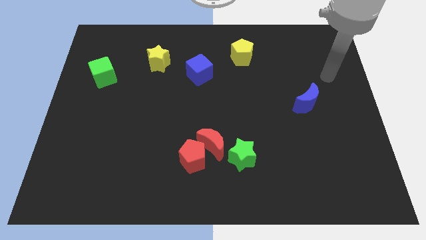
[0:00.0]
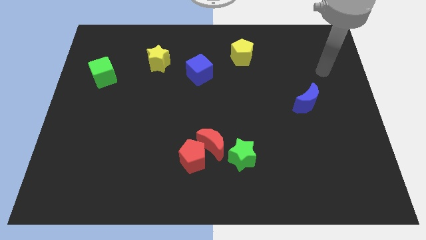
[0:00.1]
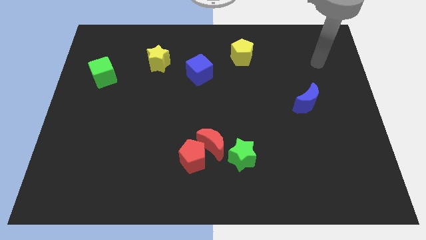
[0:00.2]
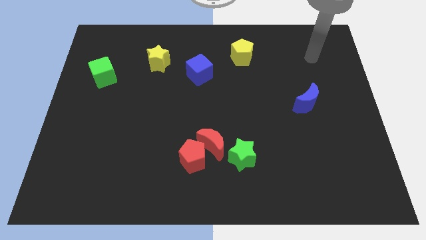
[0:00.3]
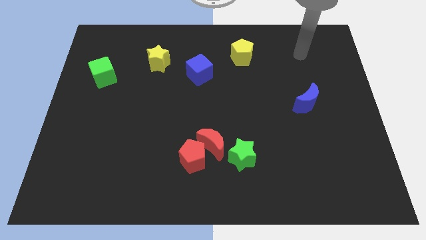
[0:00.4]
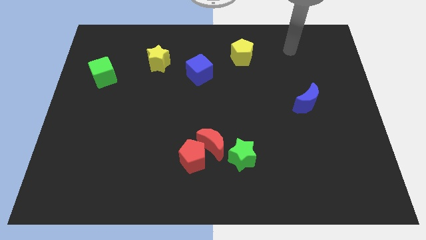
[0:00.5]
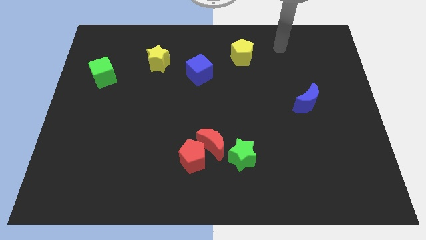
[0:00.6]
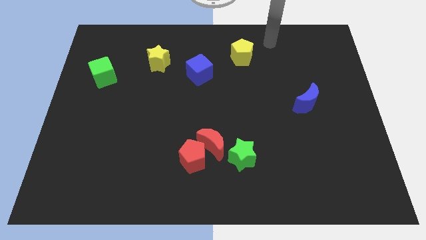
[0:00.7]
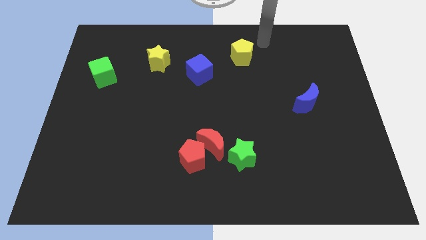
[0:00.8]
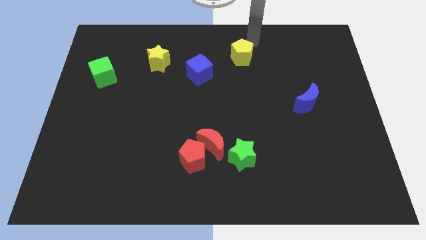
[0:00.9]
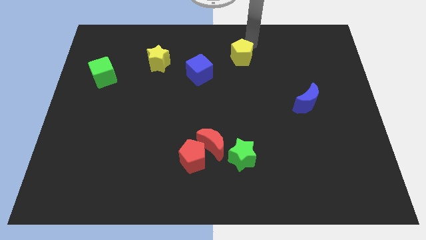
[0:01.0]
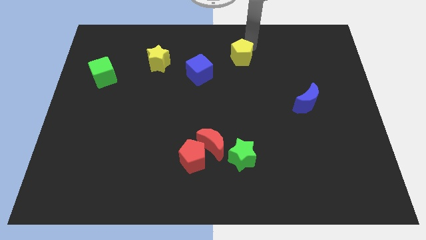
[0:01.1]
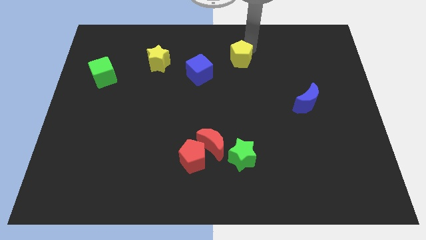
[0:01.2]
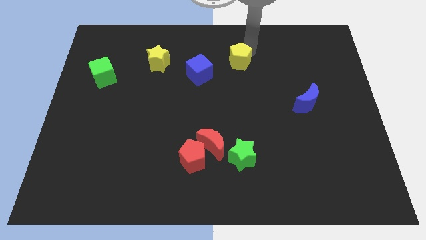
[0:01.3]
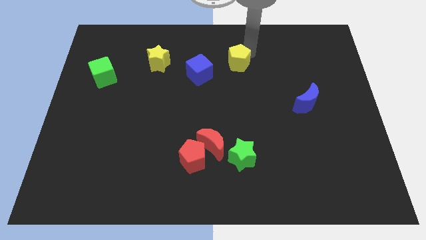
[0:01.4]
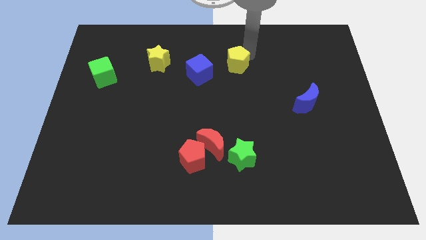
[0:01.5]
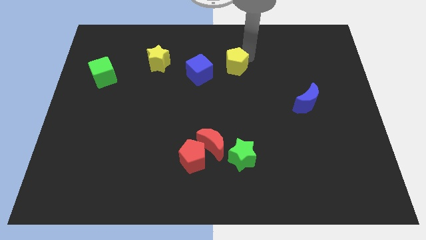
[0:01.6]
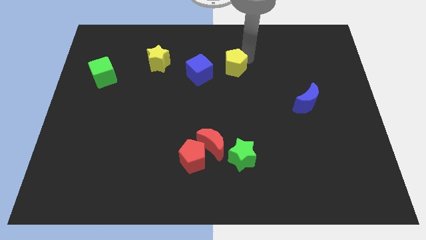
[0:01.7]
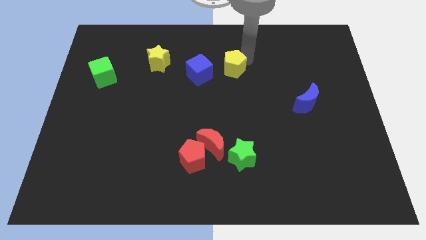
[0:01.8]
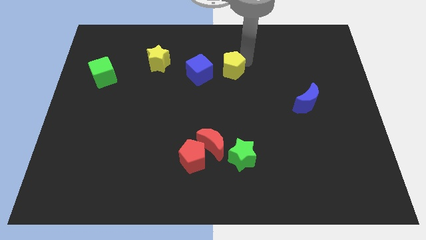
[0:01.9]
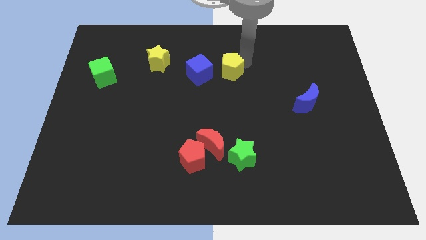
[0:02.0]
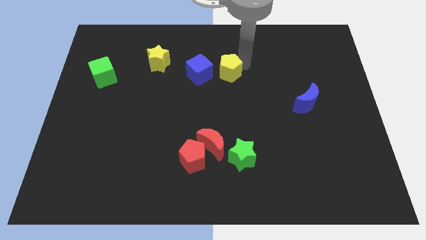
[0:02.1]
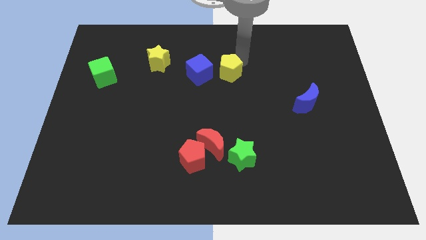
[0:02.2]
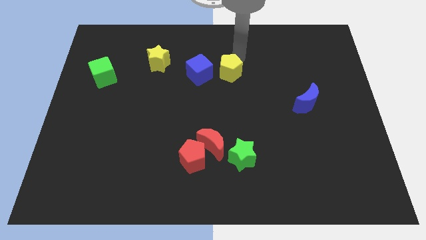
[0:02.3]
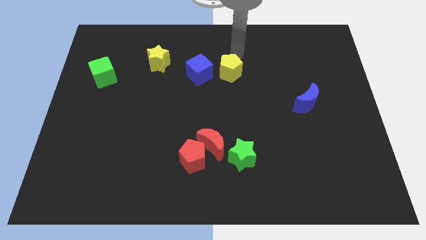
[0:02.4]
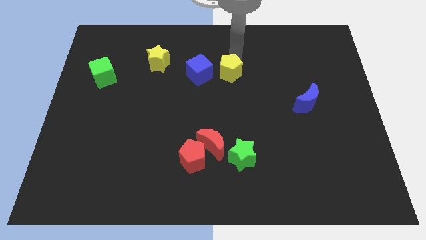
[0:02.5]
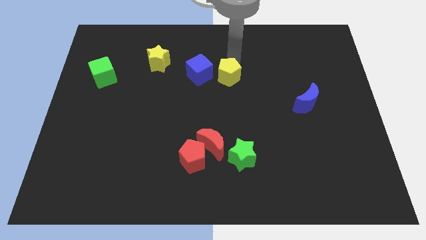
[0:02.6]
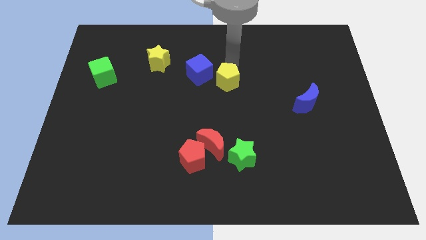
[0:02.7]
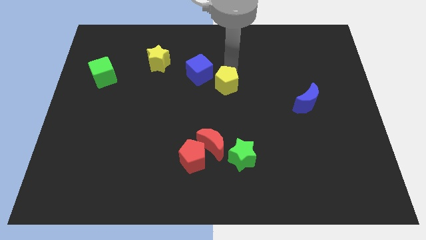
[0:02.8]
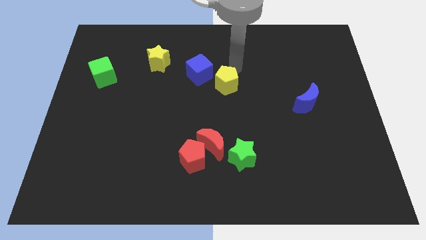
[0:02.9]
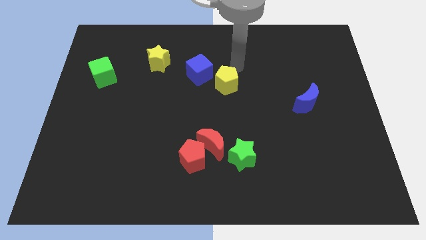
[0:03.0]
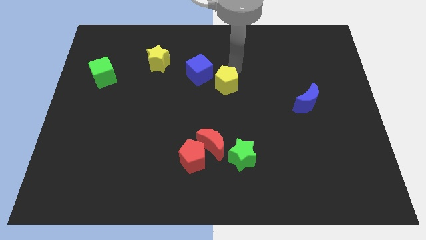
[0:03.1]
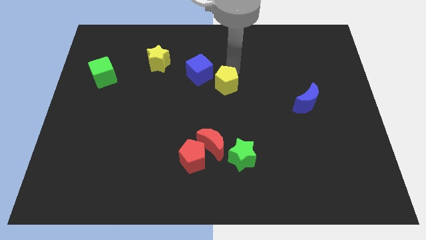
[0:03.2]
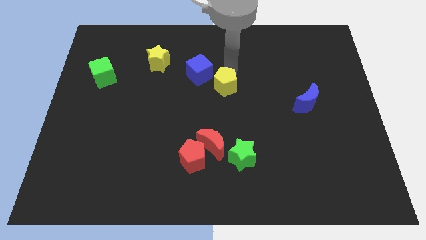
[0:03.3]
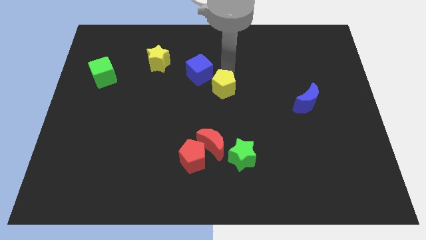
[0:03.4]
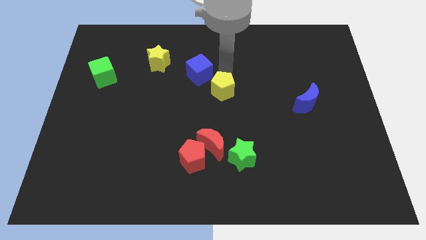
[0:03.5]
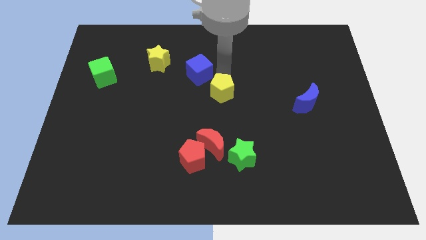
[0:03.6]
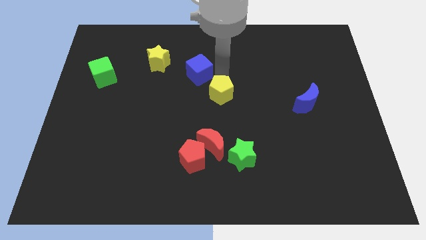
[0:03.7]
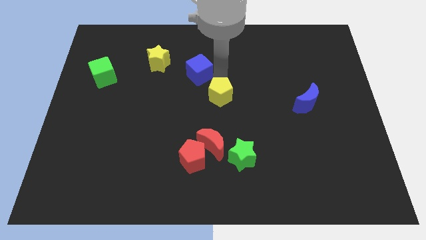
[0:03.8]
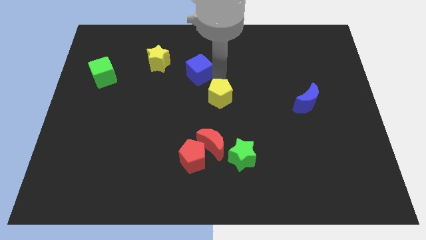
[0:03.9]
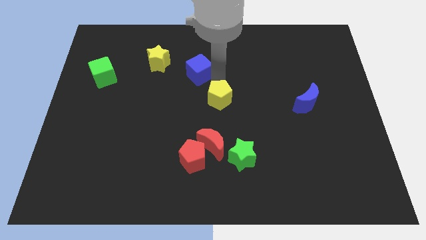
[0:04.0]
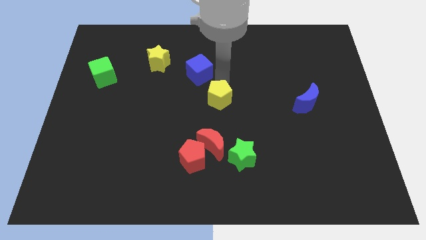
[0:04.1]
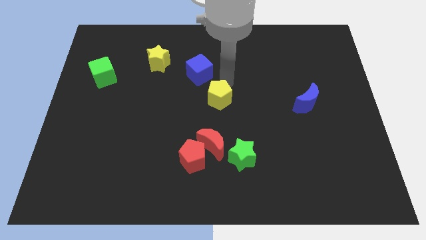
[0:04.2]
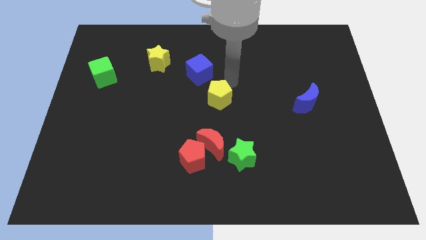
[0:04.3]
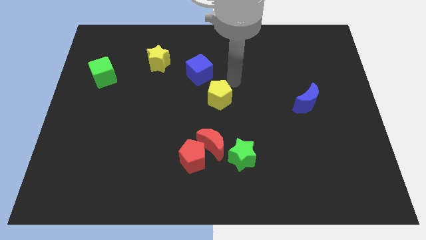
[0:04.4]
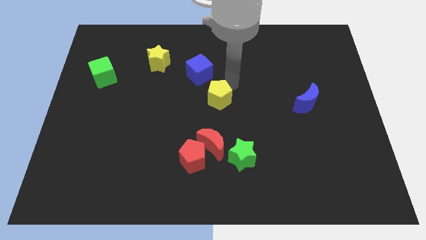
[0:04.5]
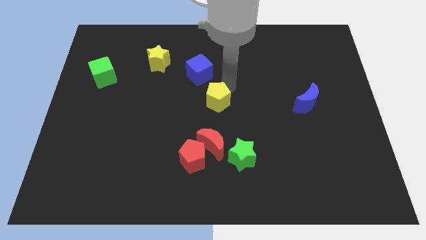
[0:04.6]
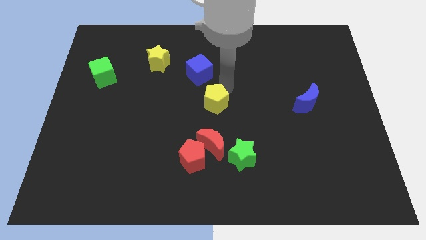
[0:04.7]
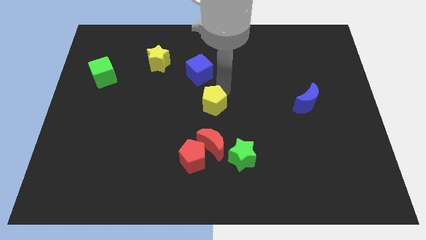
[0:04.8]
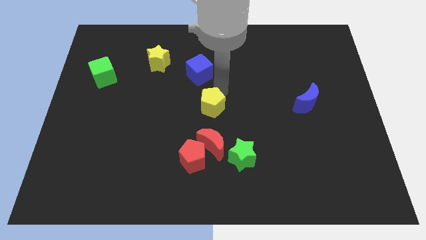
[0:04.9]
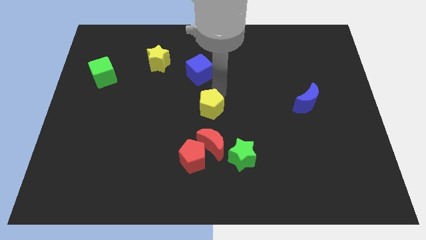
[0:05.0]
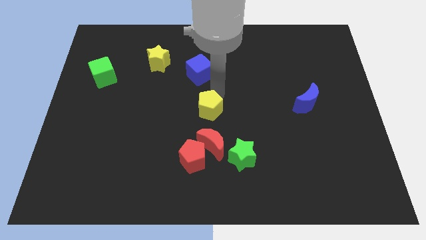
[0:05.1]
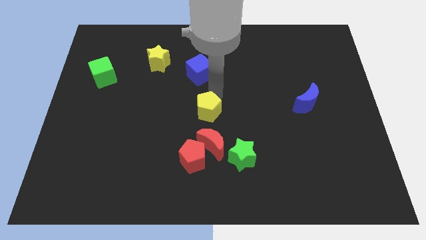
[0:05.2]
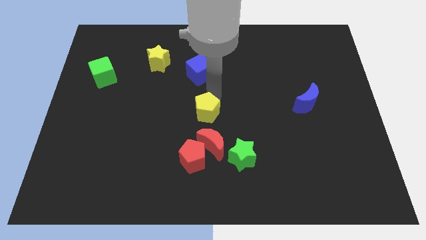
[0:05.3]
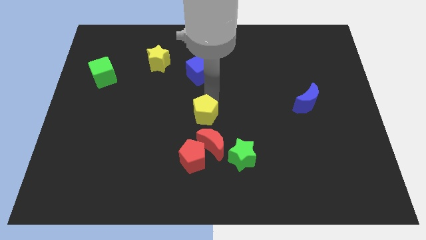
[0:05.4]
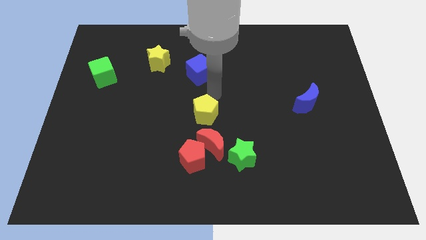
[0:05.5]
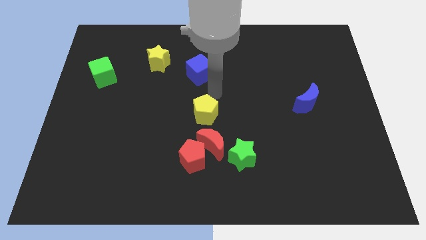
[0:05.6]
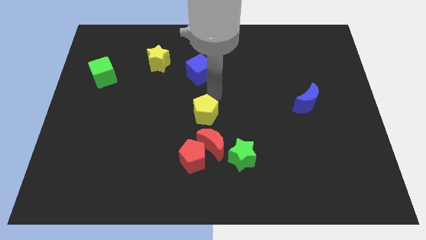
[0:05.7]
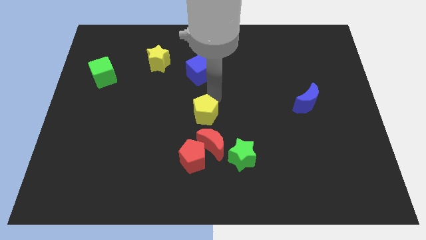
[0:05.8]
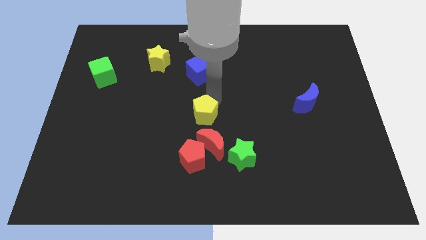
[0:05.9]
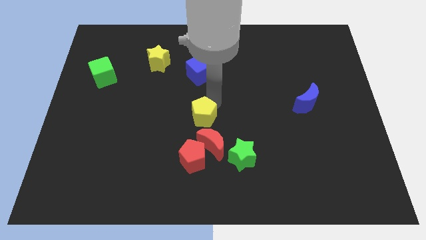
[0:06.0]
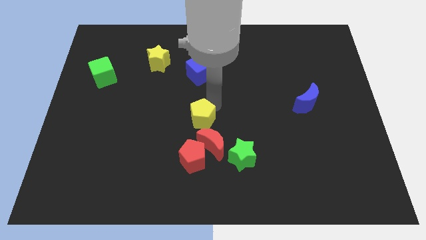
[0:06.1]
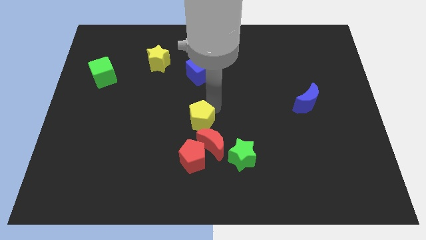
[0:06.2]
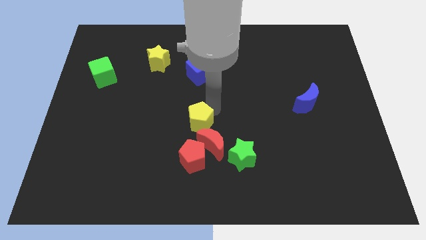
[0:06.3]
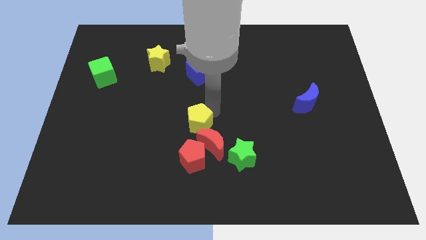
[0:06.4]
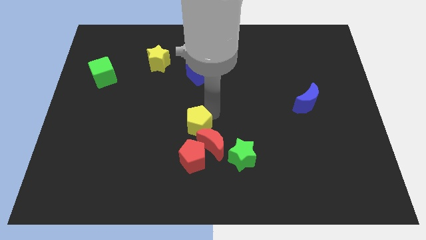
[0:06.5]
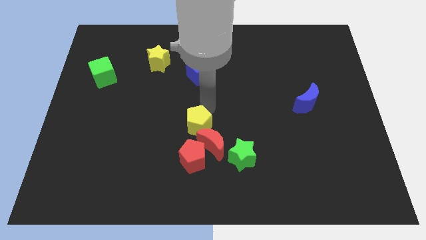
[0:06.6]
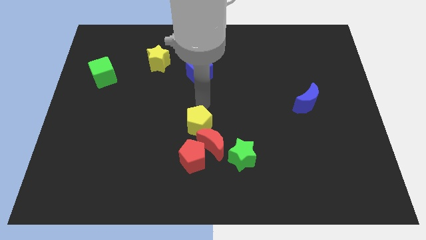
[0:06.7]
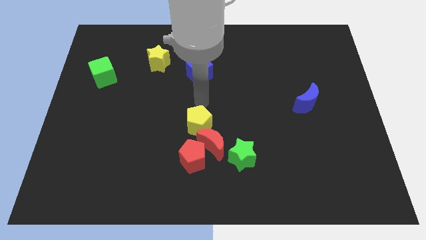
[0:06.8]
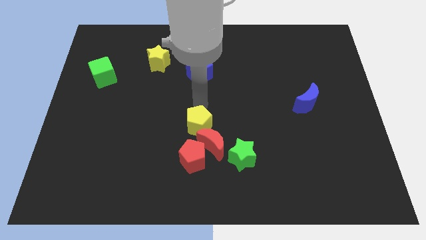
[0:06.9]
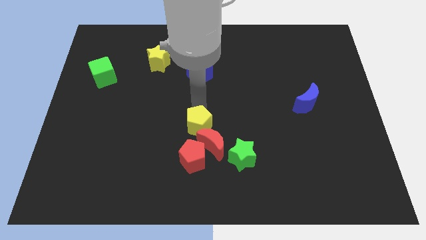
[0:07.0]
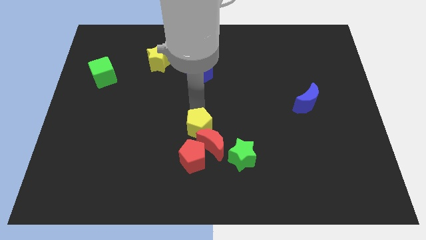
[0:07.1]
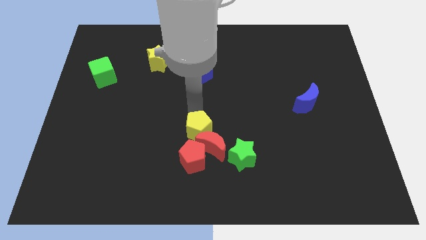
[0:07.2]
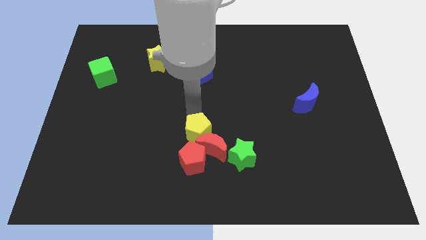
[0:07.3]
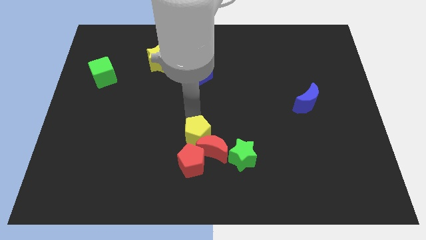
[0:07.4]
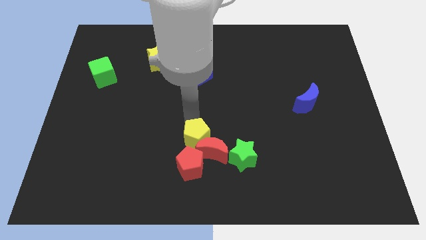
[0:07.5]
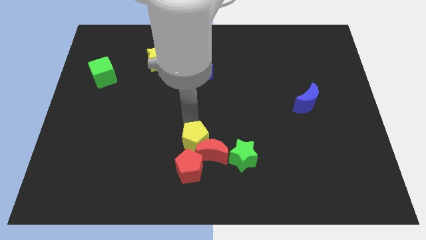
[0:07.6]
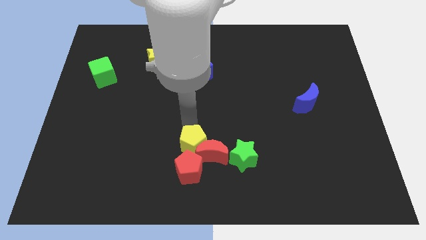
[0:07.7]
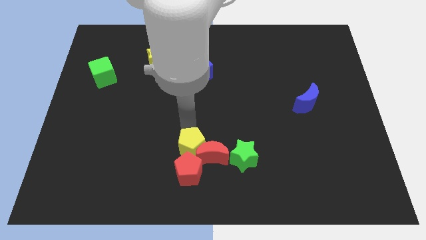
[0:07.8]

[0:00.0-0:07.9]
slide the yellow pentagon towards the red pentagon
